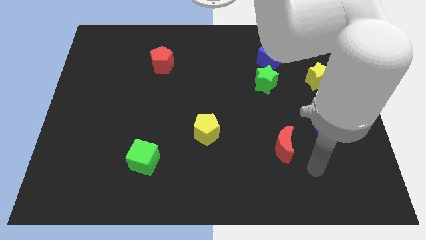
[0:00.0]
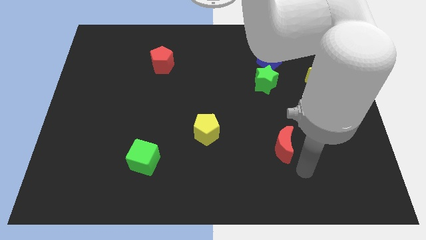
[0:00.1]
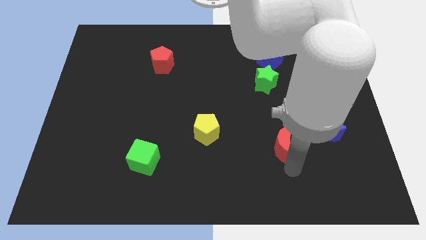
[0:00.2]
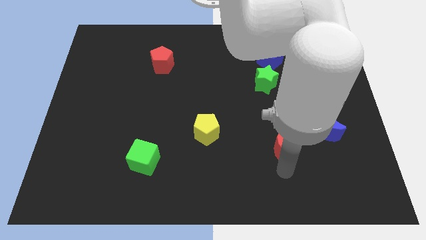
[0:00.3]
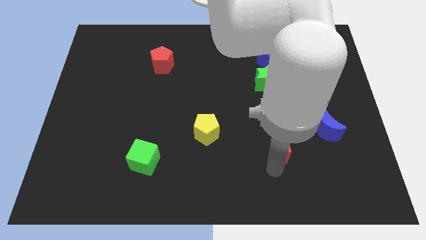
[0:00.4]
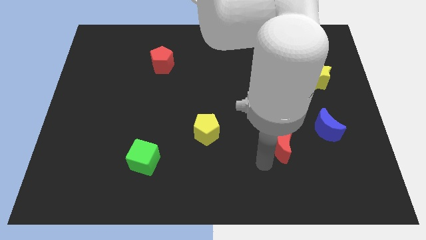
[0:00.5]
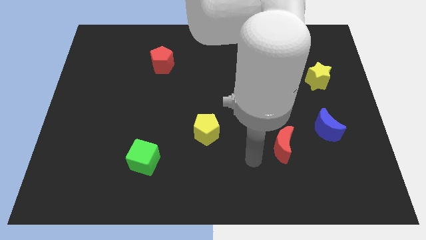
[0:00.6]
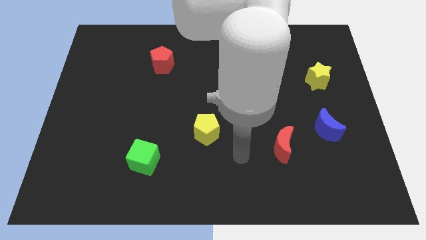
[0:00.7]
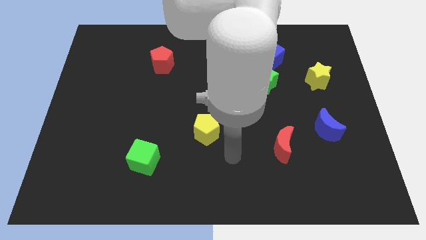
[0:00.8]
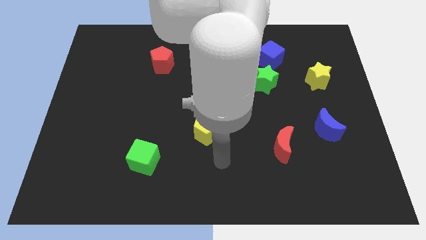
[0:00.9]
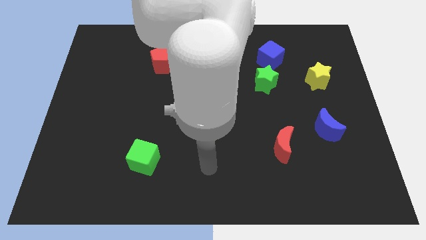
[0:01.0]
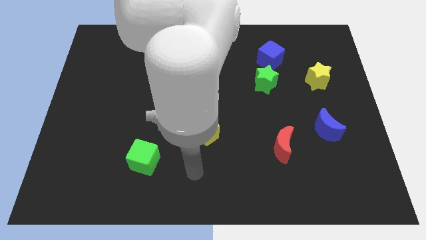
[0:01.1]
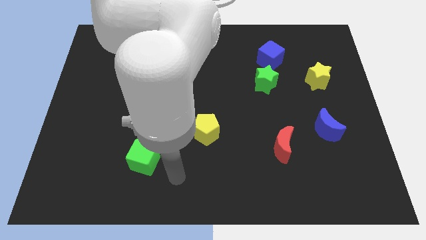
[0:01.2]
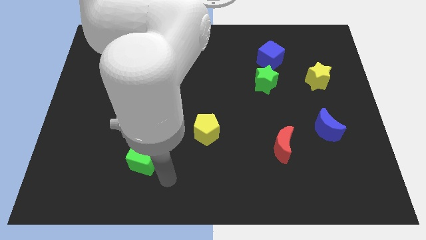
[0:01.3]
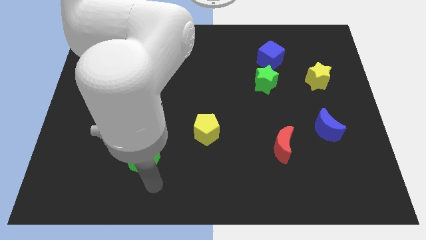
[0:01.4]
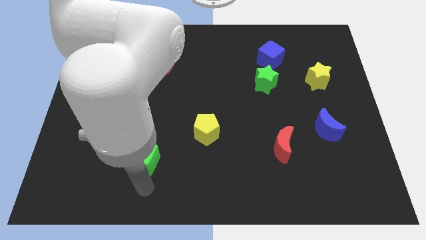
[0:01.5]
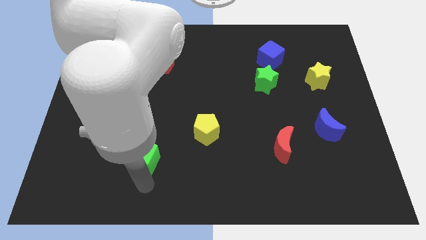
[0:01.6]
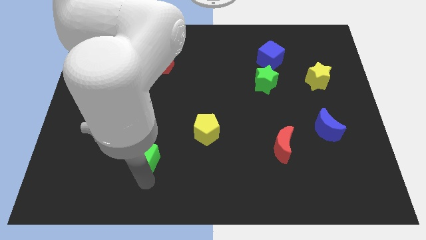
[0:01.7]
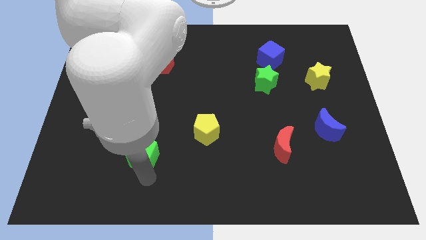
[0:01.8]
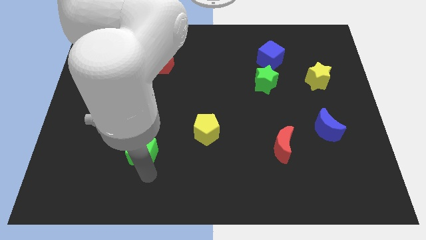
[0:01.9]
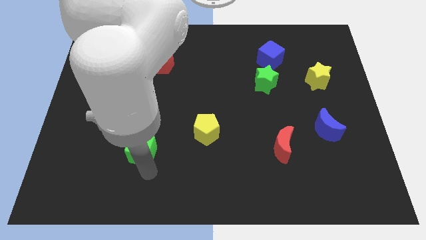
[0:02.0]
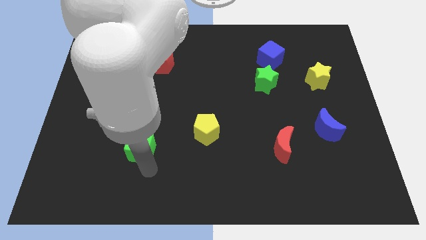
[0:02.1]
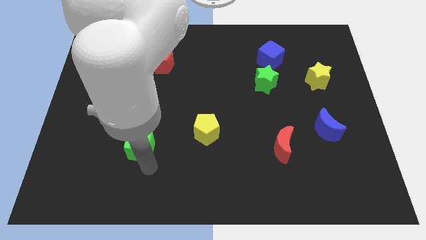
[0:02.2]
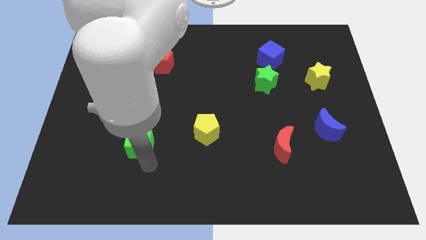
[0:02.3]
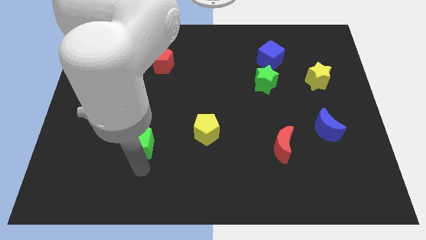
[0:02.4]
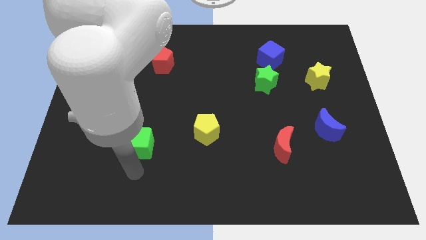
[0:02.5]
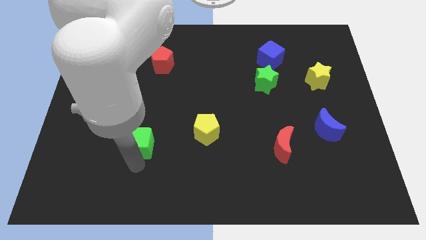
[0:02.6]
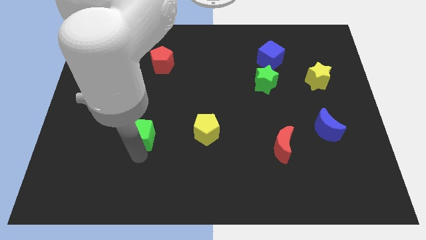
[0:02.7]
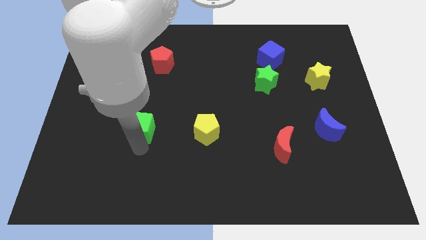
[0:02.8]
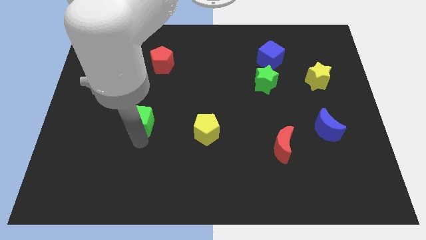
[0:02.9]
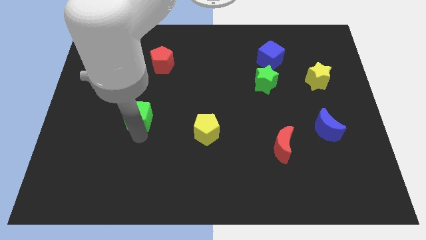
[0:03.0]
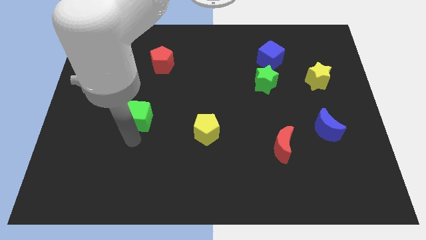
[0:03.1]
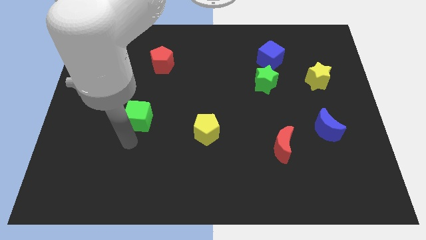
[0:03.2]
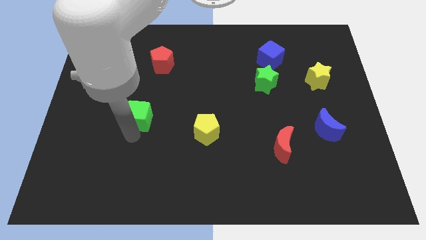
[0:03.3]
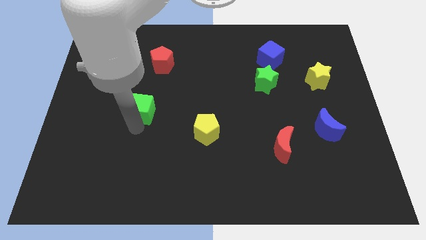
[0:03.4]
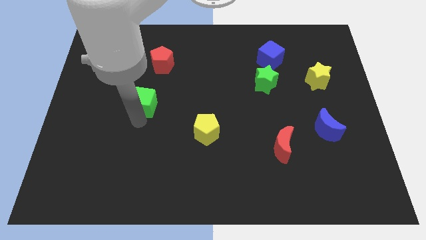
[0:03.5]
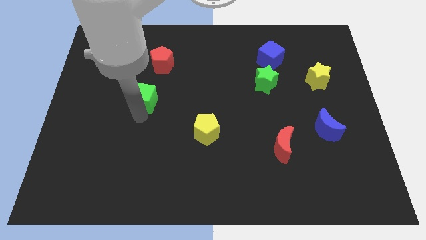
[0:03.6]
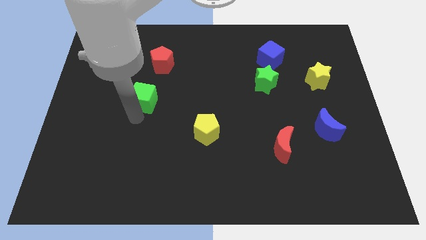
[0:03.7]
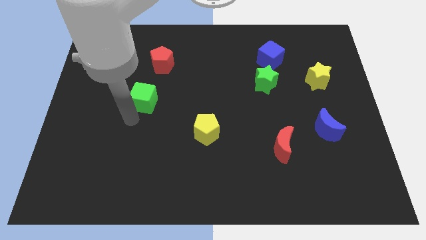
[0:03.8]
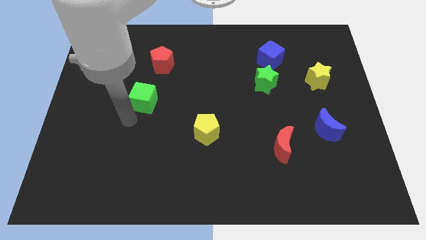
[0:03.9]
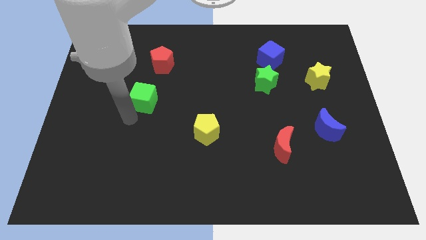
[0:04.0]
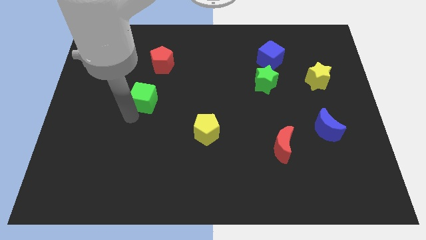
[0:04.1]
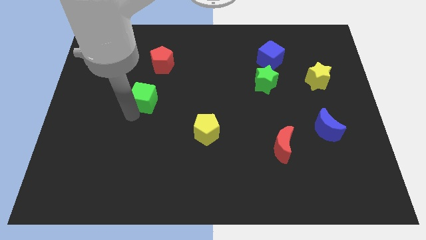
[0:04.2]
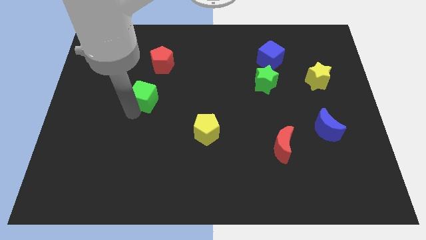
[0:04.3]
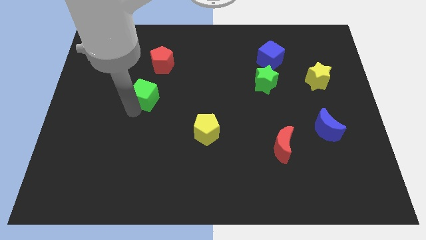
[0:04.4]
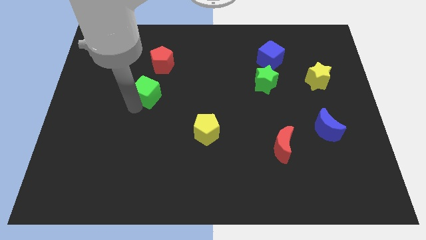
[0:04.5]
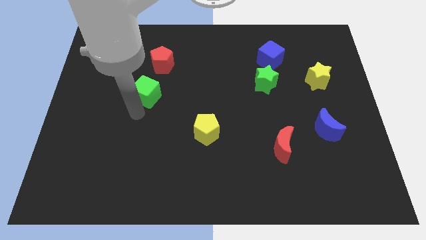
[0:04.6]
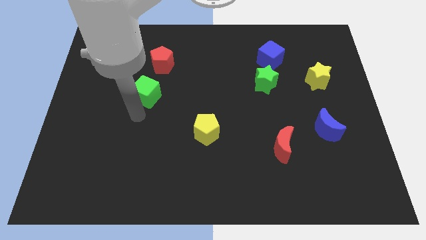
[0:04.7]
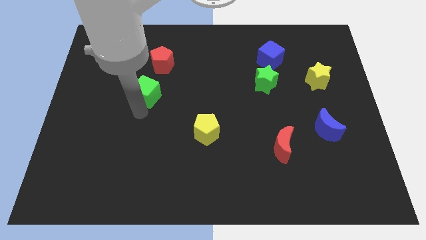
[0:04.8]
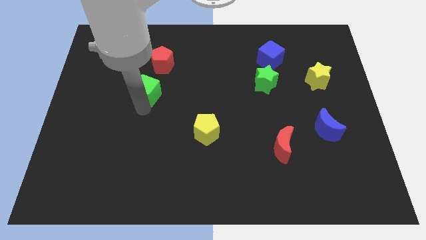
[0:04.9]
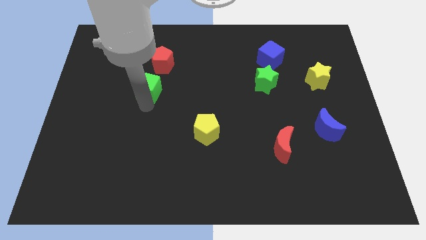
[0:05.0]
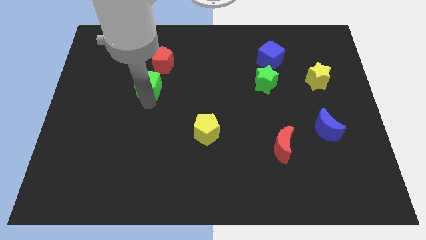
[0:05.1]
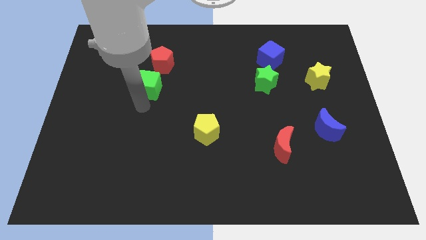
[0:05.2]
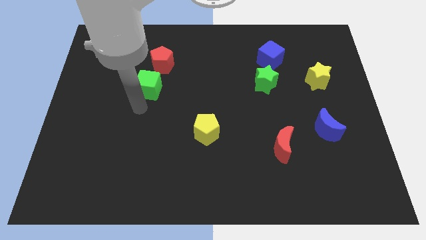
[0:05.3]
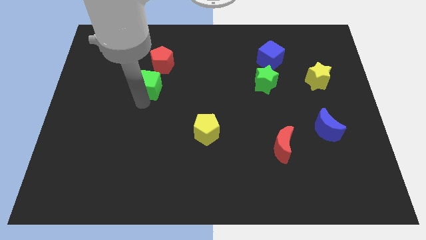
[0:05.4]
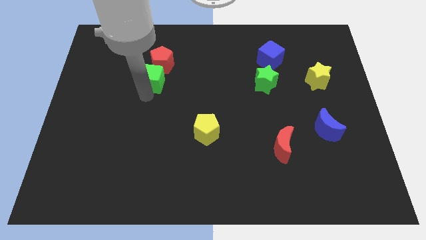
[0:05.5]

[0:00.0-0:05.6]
move the green cube to the red pentagon

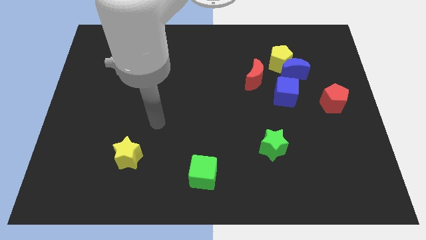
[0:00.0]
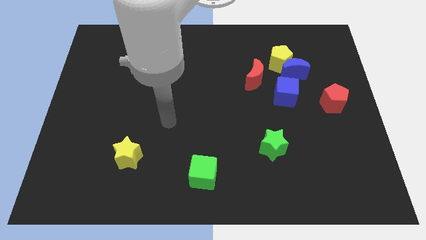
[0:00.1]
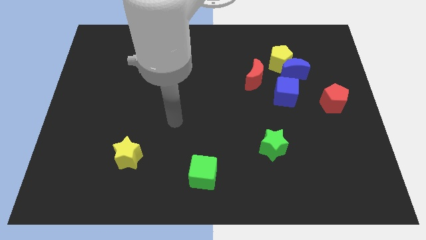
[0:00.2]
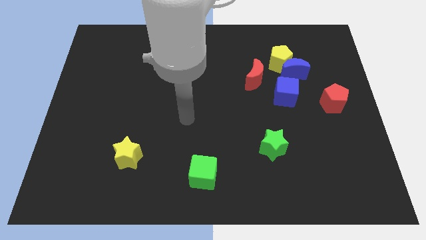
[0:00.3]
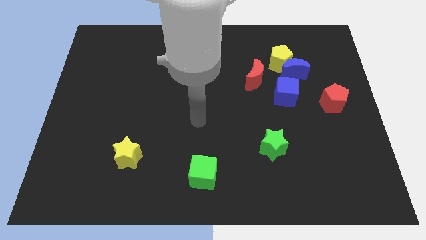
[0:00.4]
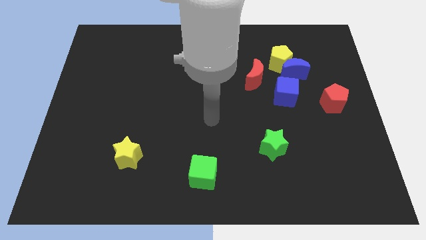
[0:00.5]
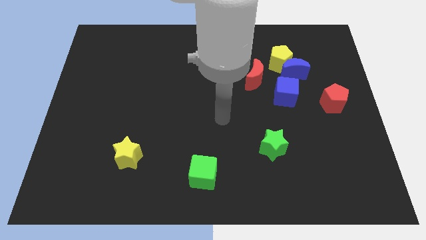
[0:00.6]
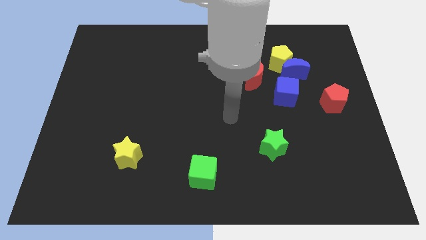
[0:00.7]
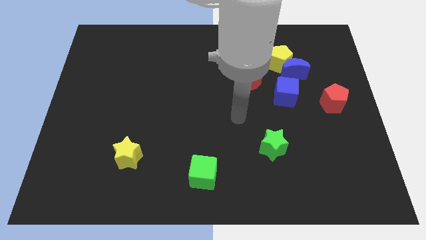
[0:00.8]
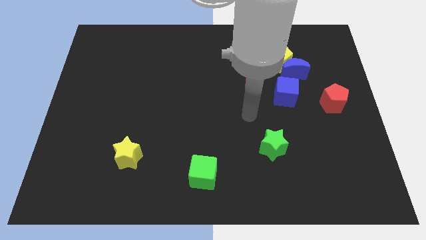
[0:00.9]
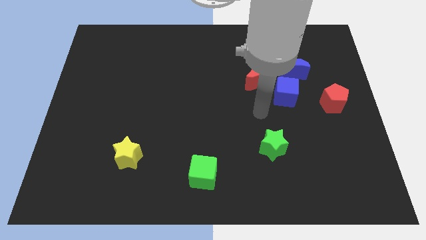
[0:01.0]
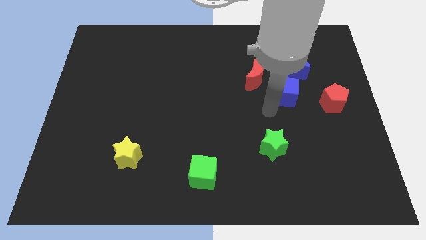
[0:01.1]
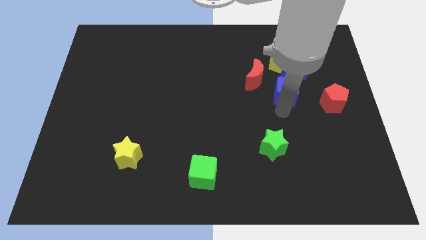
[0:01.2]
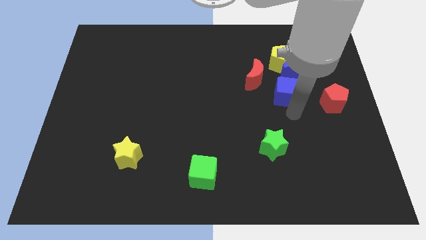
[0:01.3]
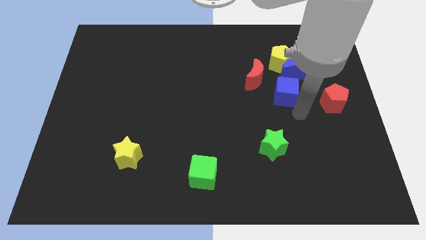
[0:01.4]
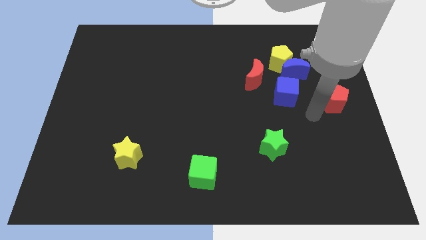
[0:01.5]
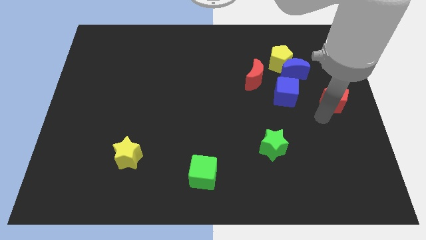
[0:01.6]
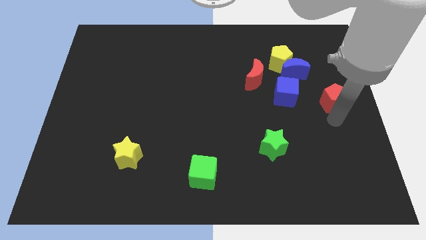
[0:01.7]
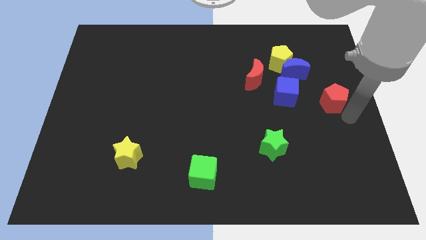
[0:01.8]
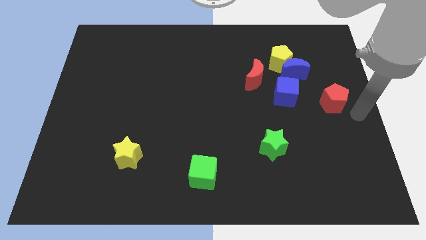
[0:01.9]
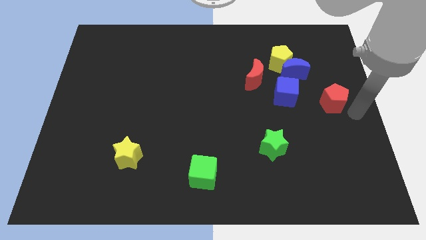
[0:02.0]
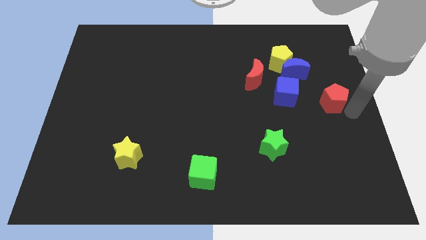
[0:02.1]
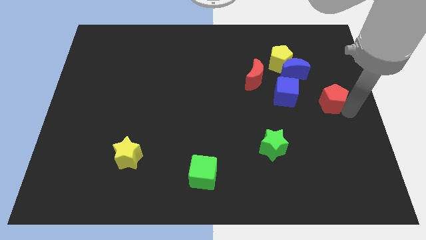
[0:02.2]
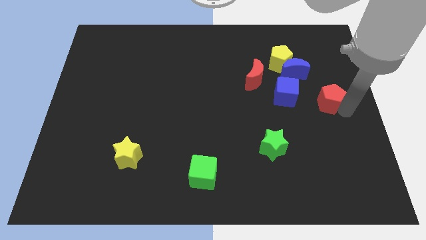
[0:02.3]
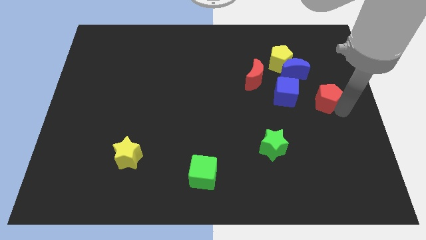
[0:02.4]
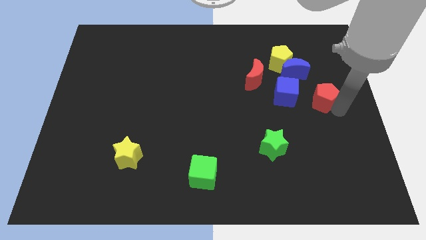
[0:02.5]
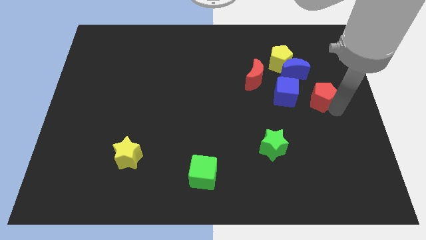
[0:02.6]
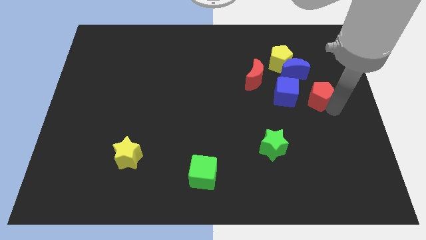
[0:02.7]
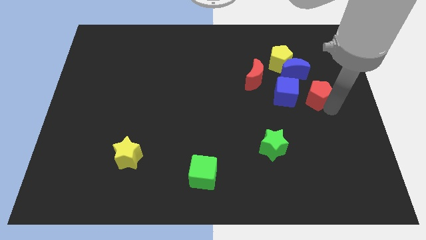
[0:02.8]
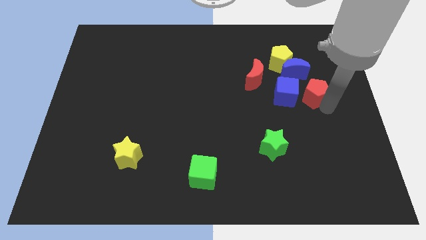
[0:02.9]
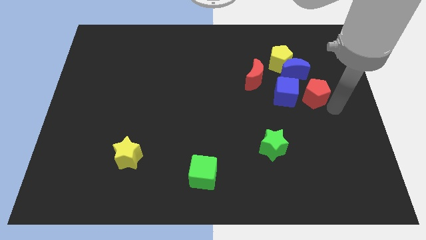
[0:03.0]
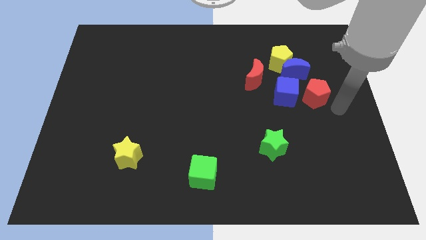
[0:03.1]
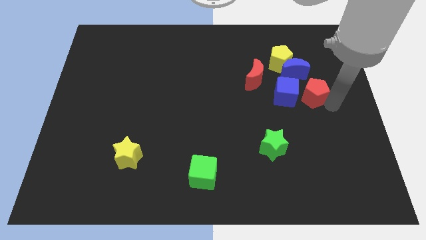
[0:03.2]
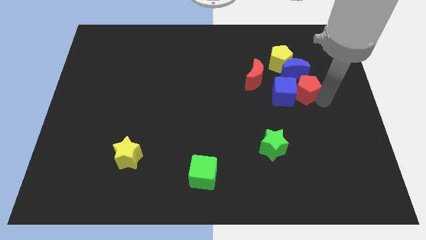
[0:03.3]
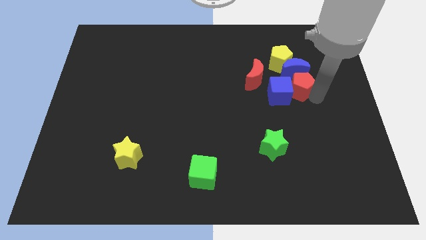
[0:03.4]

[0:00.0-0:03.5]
put the red pentagon to the blue moon
